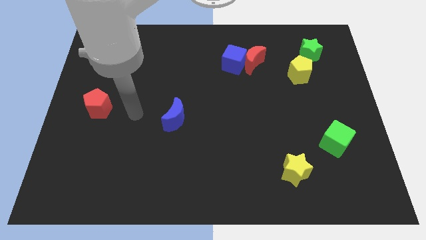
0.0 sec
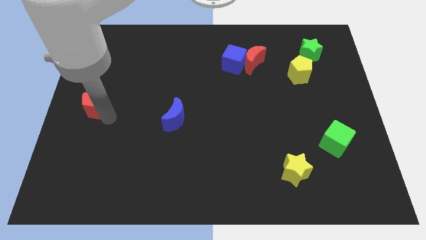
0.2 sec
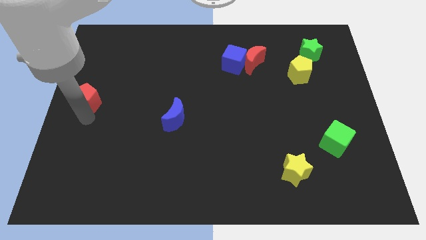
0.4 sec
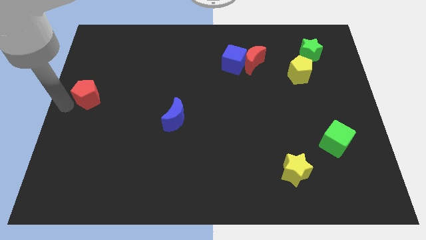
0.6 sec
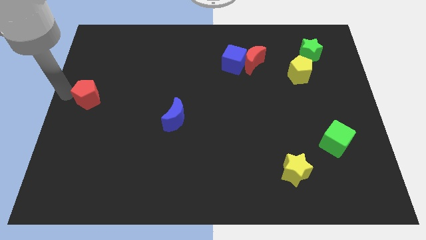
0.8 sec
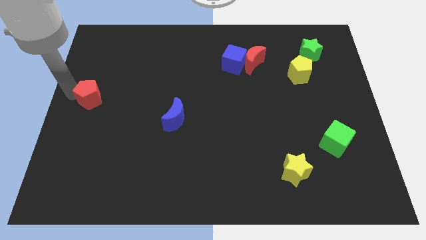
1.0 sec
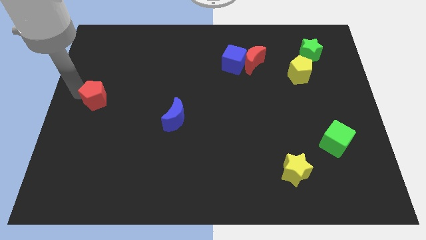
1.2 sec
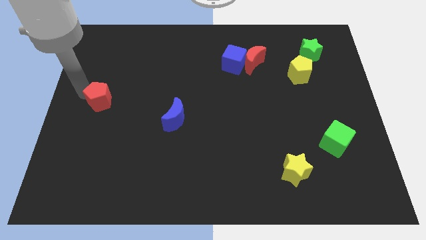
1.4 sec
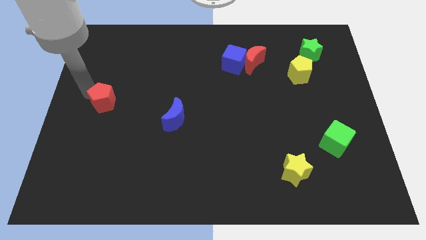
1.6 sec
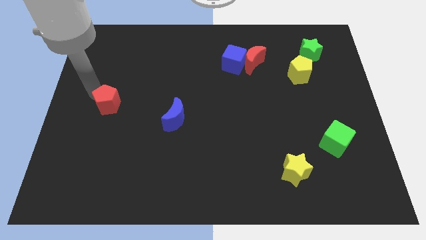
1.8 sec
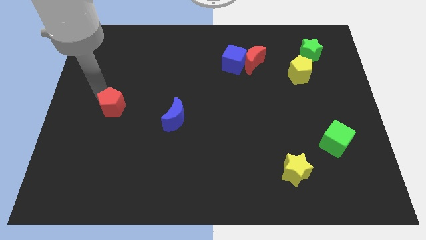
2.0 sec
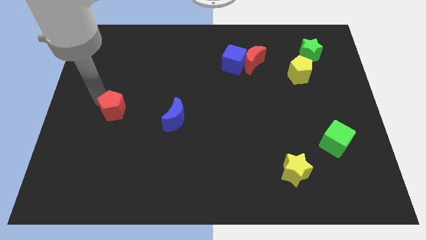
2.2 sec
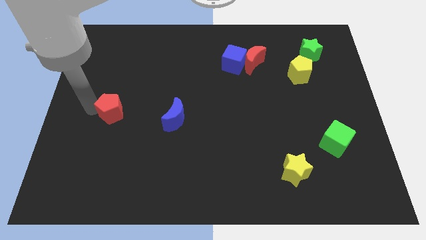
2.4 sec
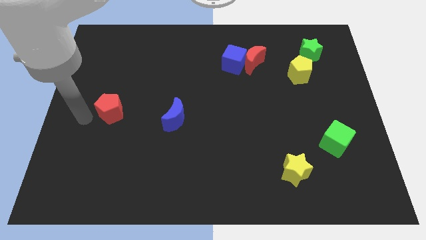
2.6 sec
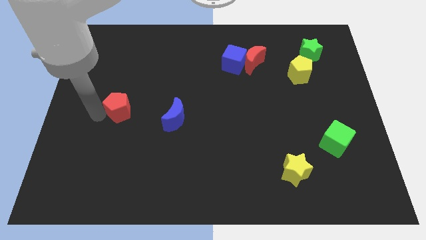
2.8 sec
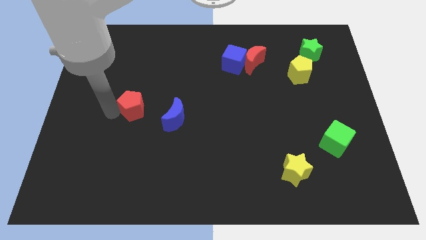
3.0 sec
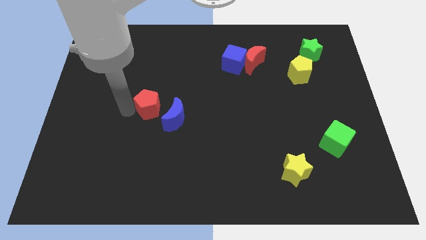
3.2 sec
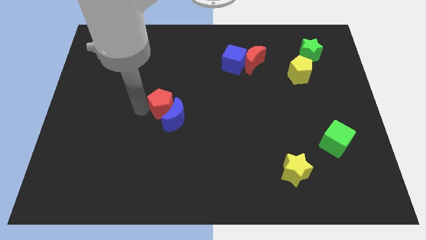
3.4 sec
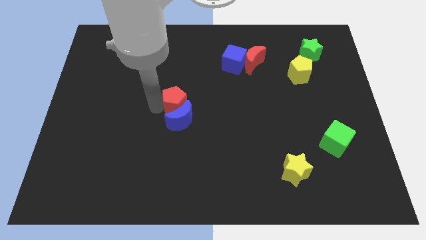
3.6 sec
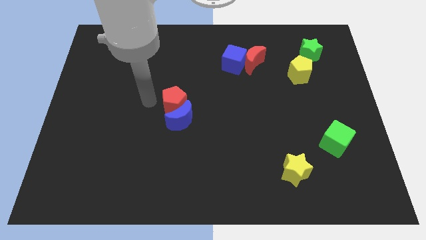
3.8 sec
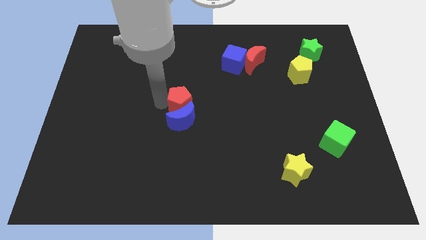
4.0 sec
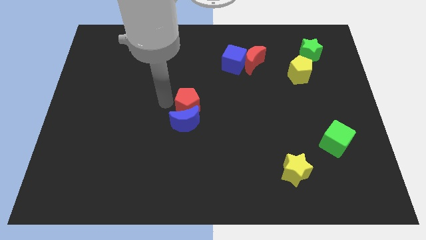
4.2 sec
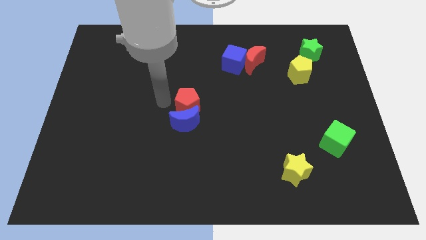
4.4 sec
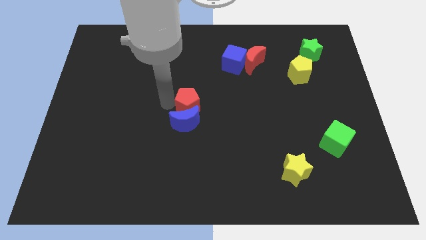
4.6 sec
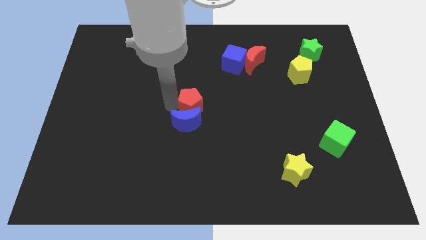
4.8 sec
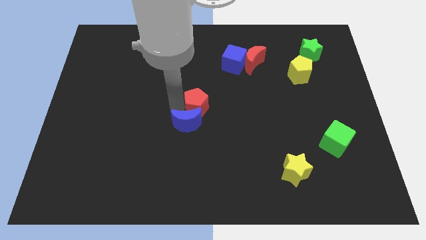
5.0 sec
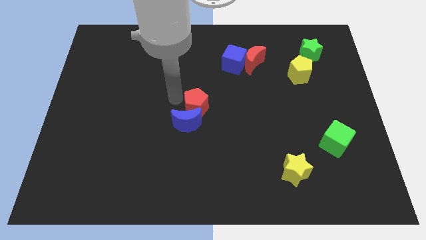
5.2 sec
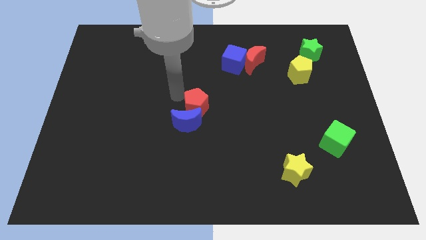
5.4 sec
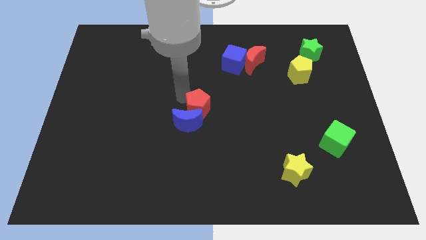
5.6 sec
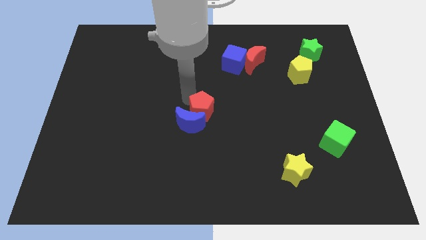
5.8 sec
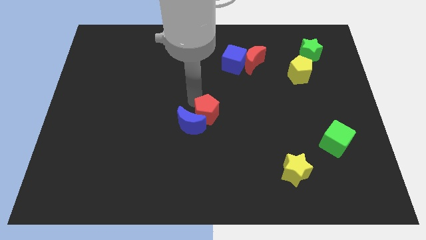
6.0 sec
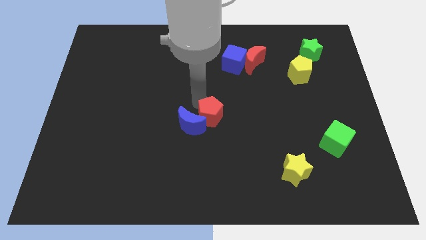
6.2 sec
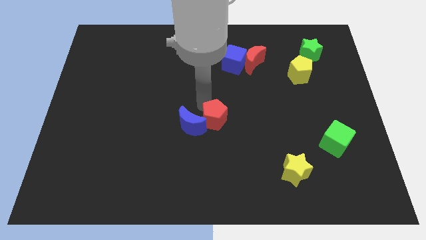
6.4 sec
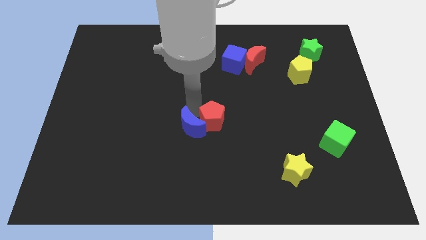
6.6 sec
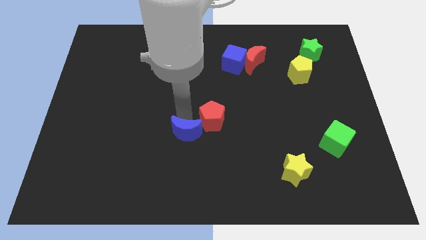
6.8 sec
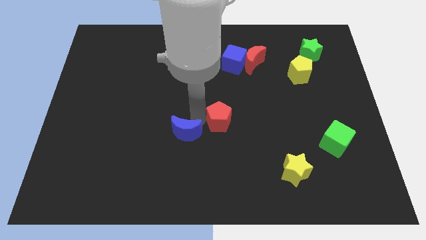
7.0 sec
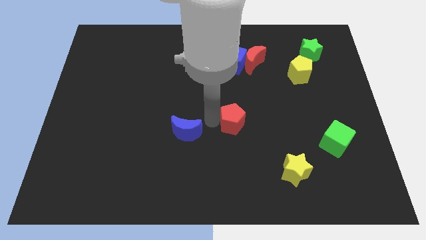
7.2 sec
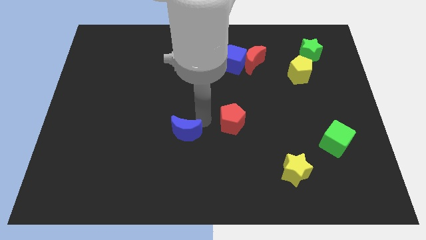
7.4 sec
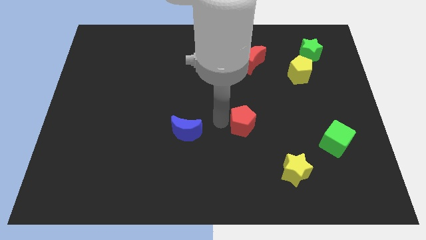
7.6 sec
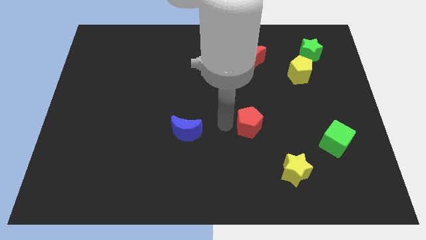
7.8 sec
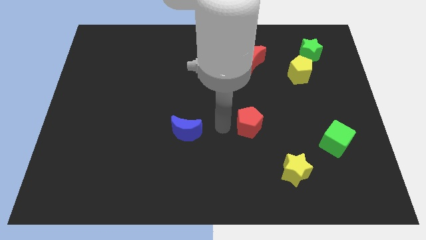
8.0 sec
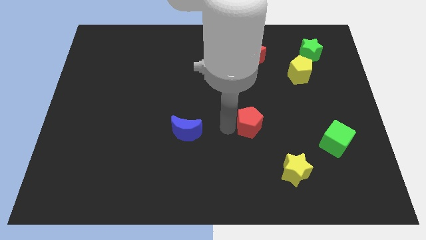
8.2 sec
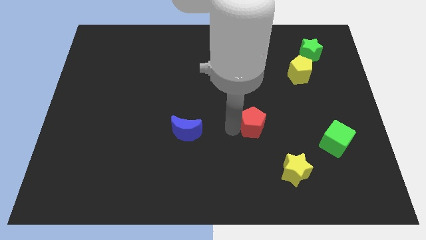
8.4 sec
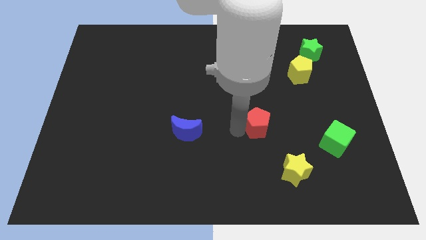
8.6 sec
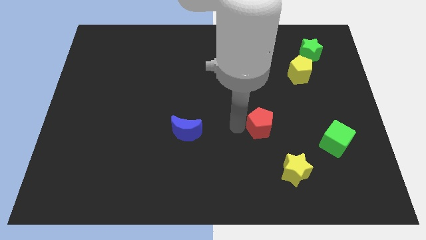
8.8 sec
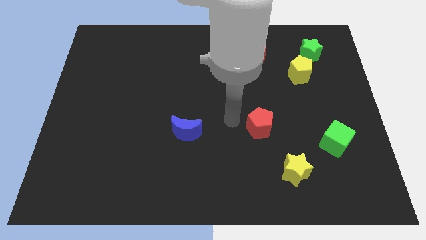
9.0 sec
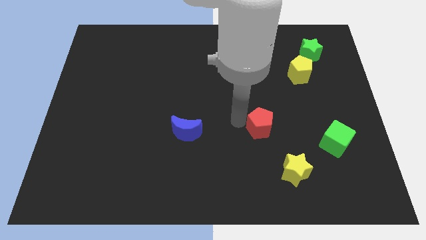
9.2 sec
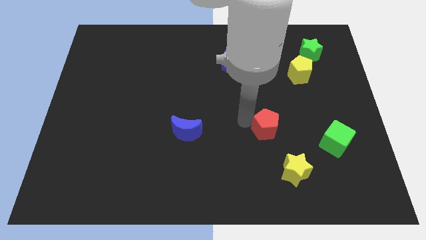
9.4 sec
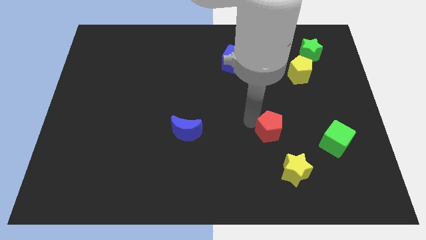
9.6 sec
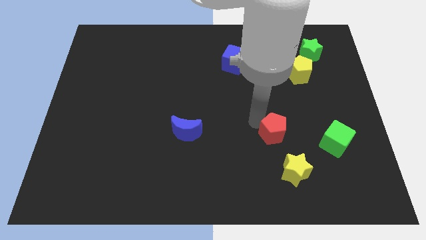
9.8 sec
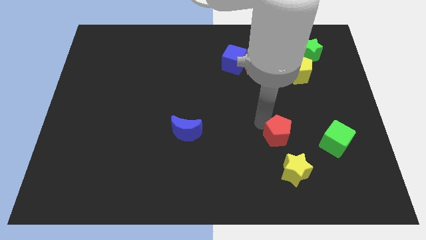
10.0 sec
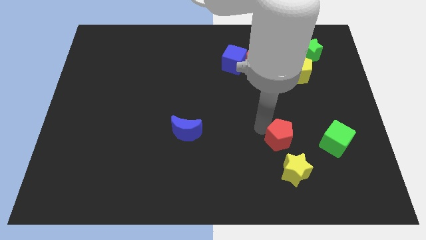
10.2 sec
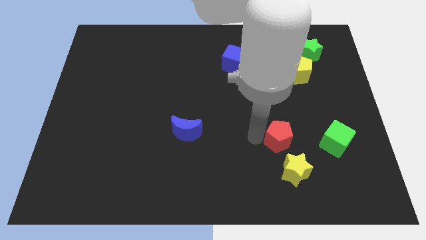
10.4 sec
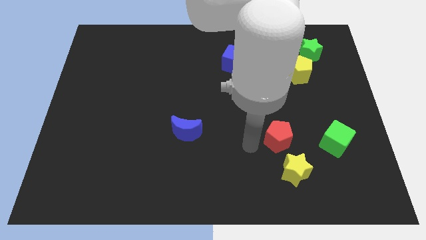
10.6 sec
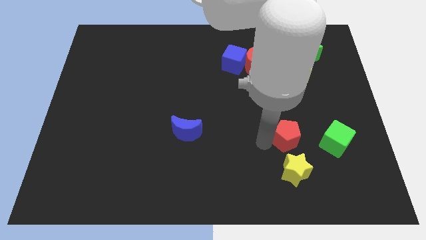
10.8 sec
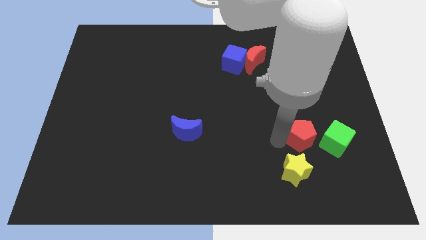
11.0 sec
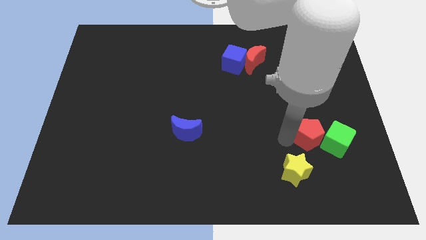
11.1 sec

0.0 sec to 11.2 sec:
put the red pentagon next to the green cube

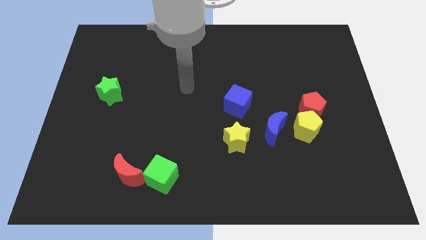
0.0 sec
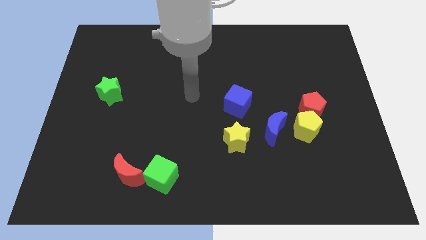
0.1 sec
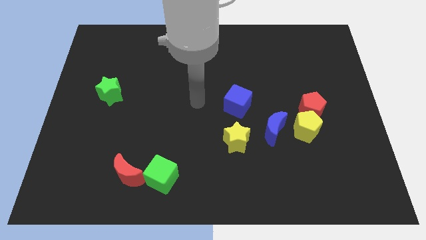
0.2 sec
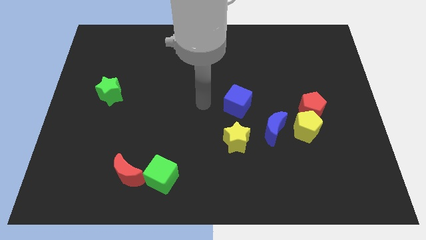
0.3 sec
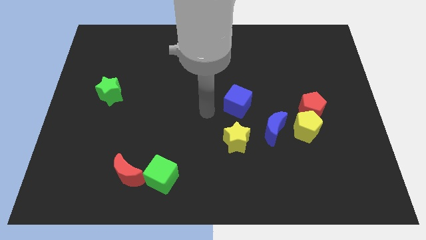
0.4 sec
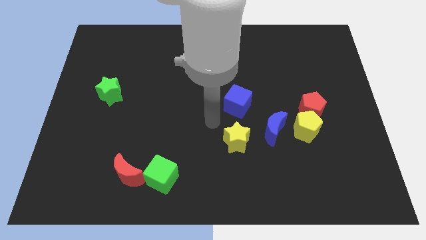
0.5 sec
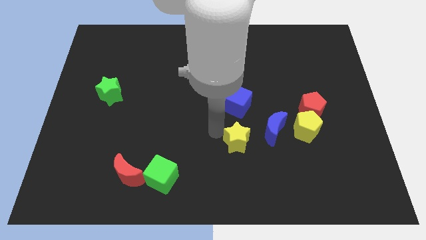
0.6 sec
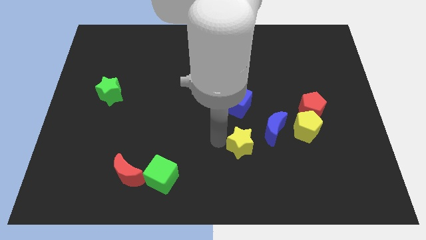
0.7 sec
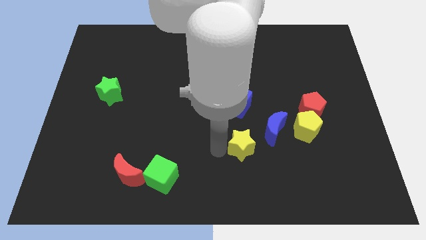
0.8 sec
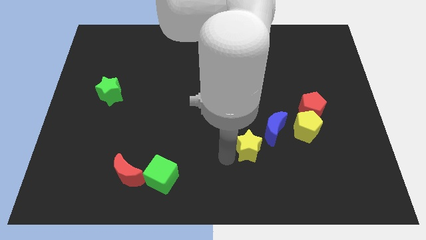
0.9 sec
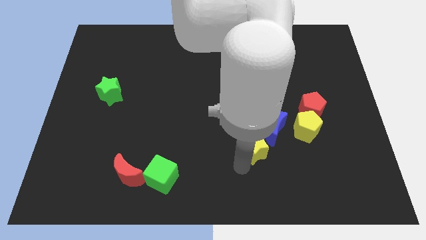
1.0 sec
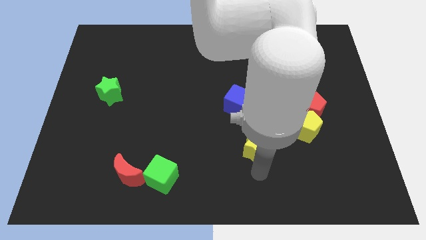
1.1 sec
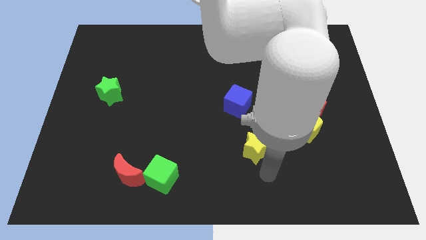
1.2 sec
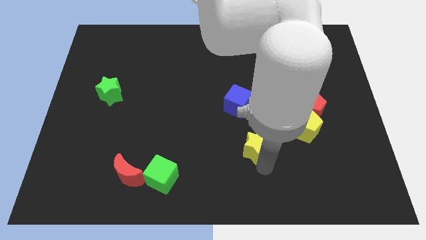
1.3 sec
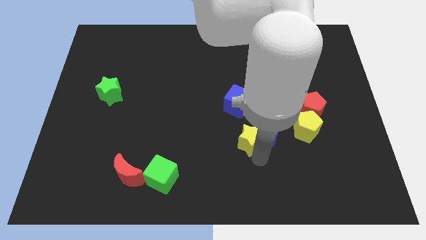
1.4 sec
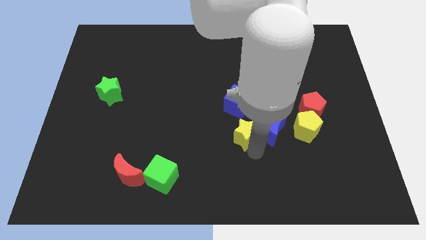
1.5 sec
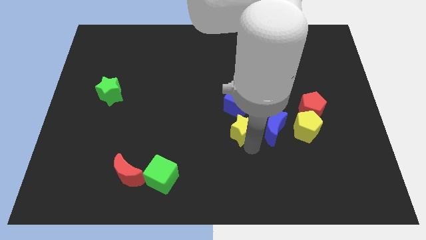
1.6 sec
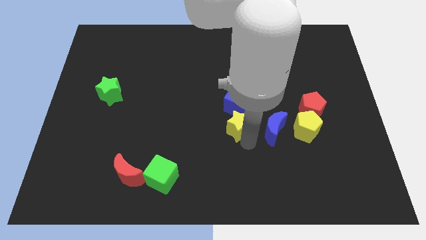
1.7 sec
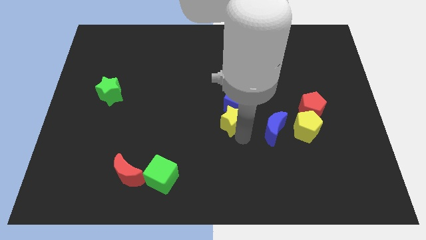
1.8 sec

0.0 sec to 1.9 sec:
move the yellow star next to the blue cube
